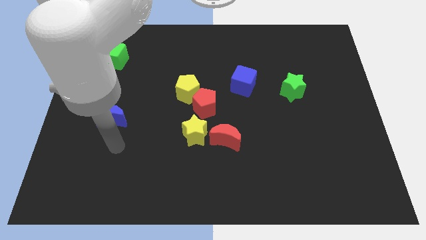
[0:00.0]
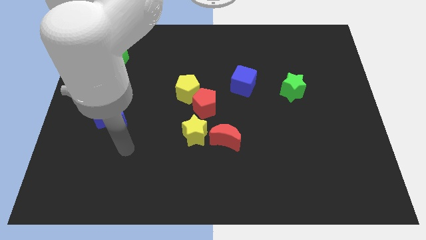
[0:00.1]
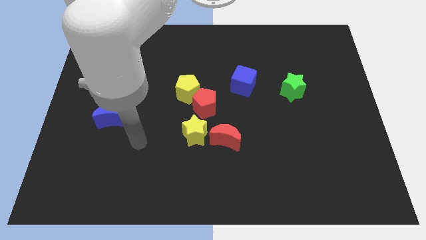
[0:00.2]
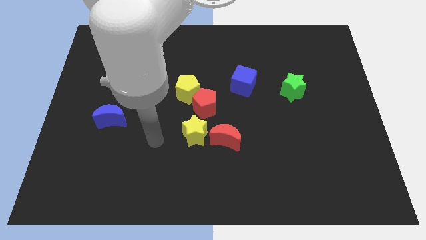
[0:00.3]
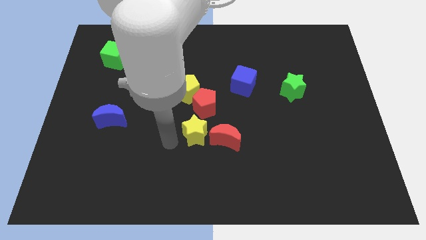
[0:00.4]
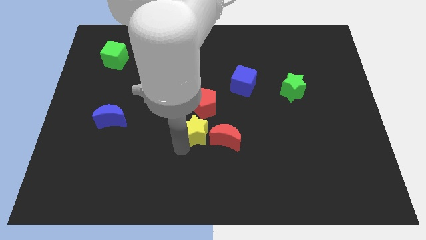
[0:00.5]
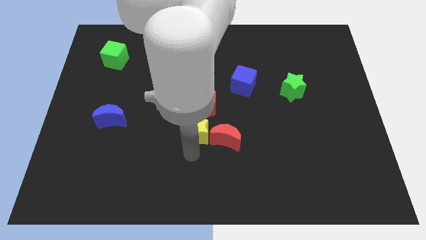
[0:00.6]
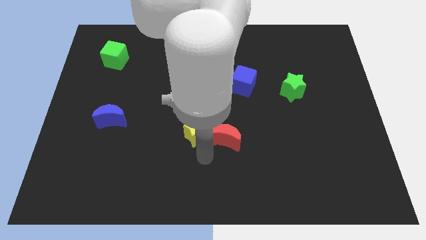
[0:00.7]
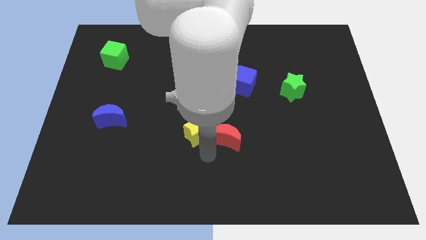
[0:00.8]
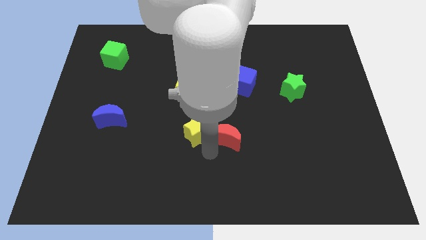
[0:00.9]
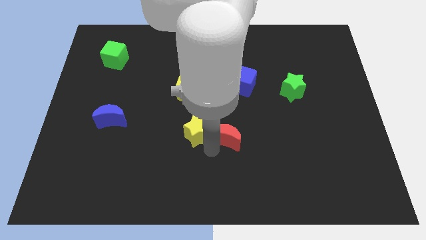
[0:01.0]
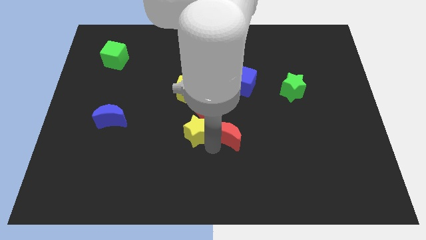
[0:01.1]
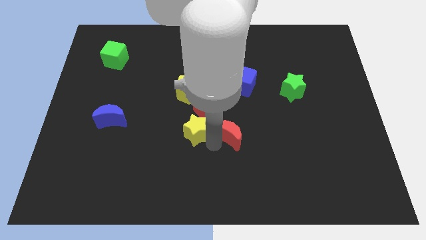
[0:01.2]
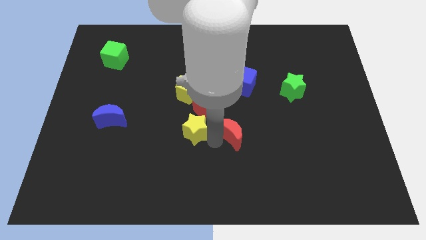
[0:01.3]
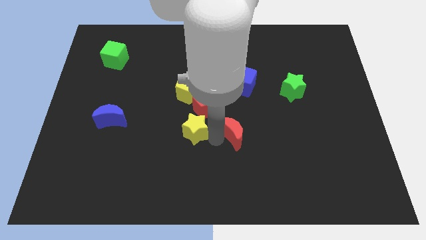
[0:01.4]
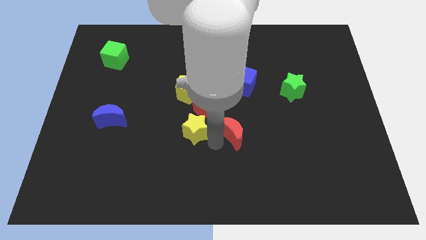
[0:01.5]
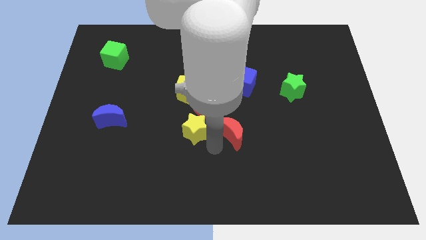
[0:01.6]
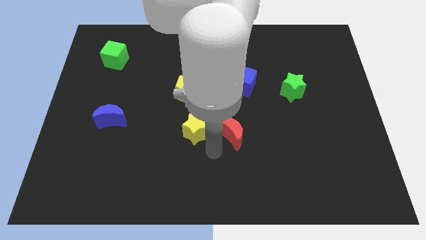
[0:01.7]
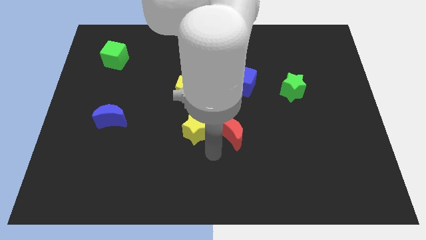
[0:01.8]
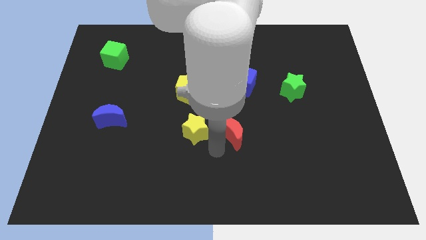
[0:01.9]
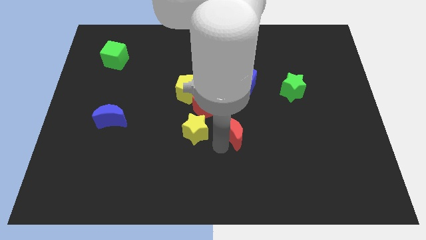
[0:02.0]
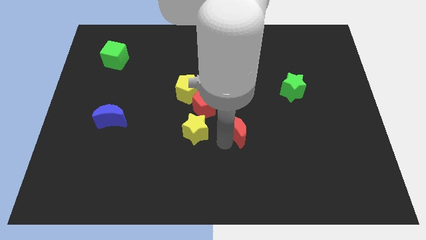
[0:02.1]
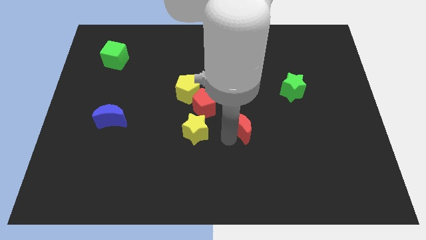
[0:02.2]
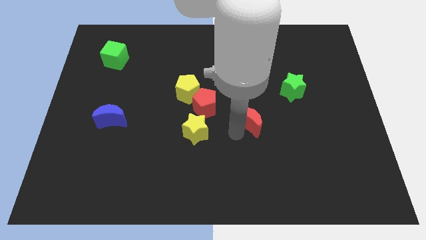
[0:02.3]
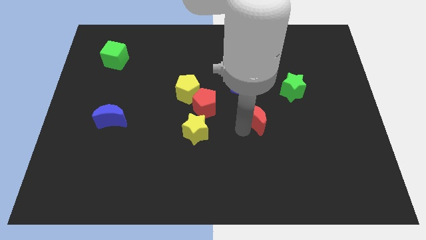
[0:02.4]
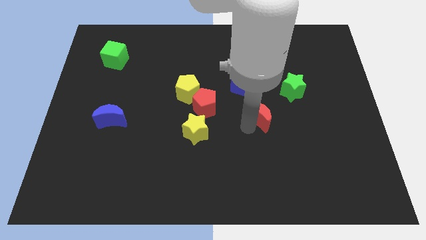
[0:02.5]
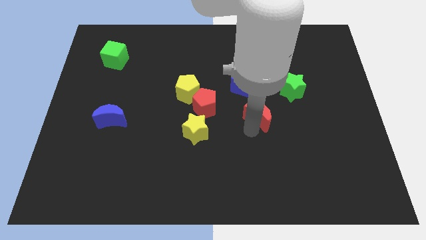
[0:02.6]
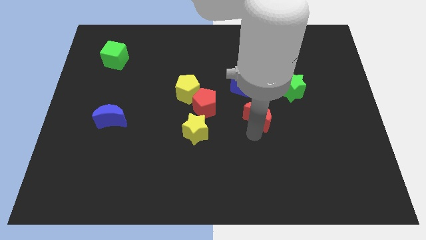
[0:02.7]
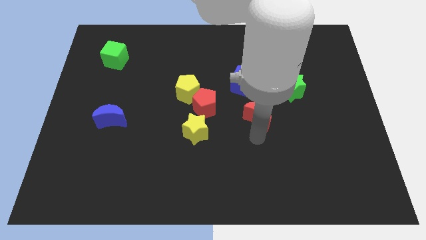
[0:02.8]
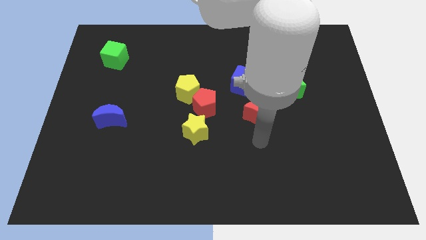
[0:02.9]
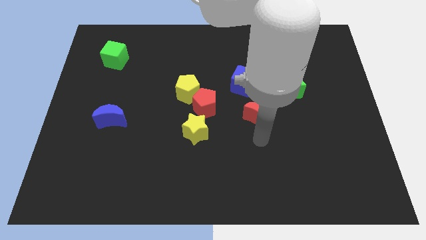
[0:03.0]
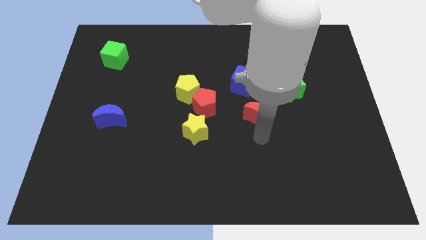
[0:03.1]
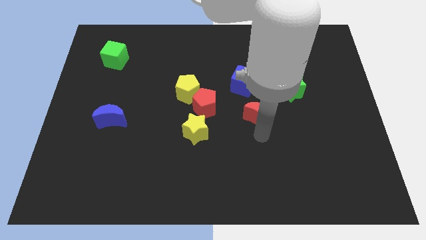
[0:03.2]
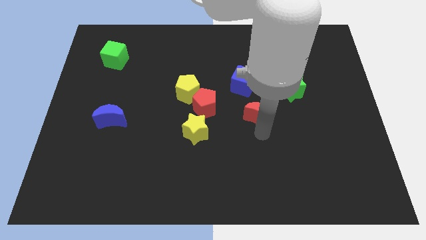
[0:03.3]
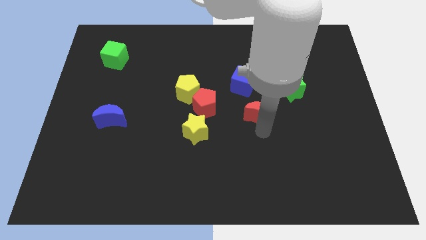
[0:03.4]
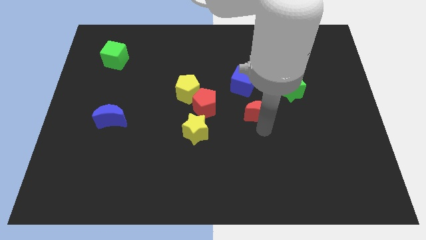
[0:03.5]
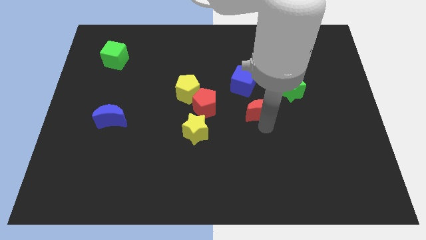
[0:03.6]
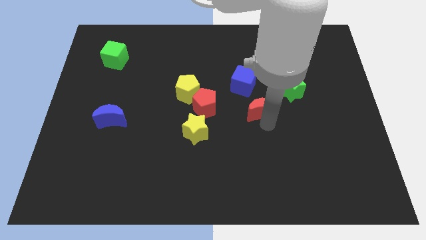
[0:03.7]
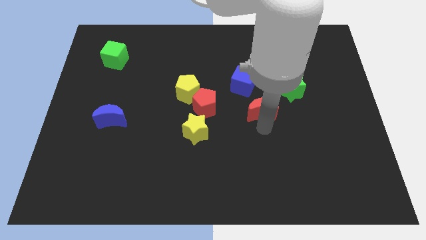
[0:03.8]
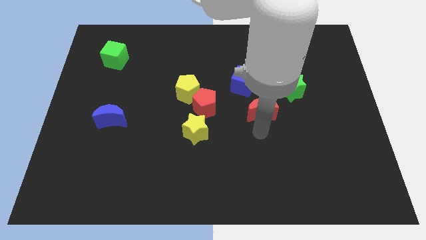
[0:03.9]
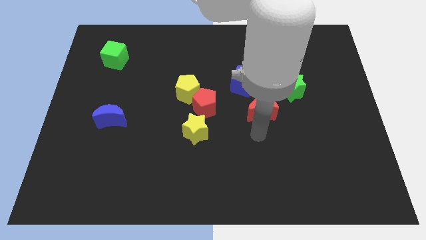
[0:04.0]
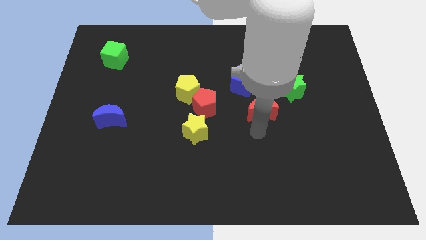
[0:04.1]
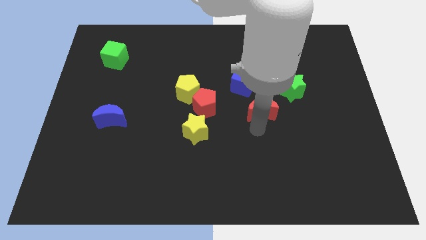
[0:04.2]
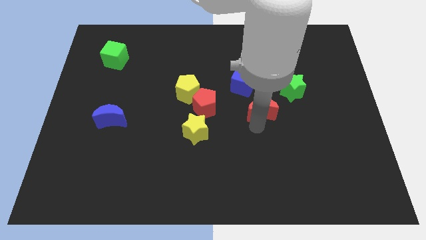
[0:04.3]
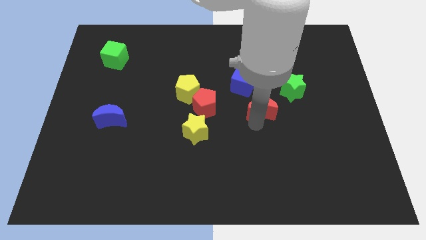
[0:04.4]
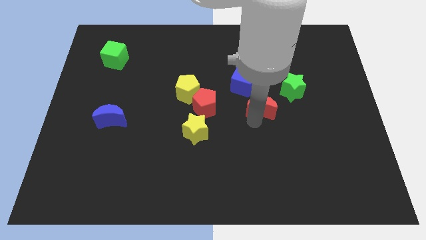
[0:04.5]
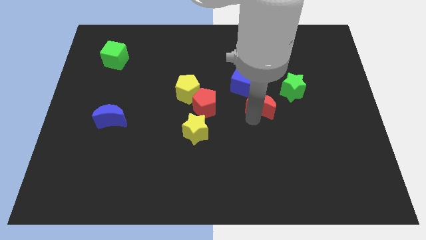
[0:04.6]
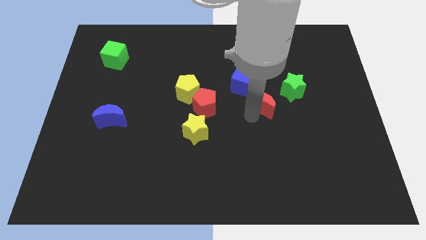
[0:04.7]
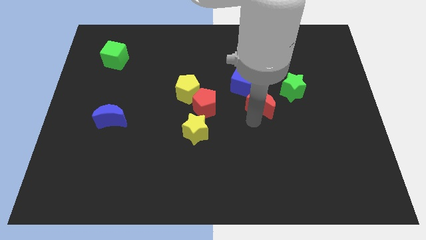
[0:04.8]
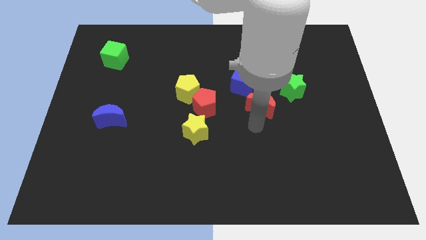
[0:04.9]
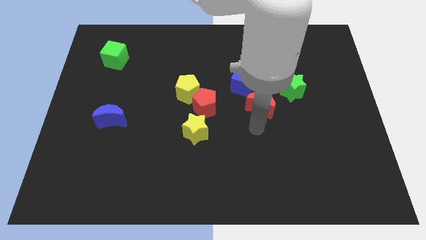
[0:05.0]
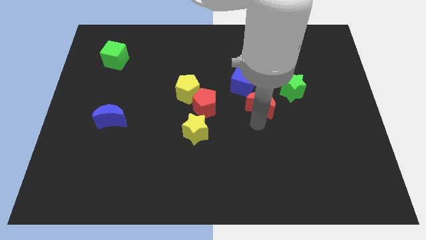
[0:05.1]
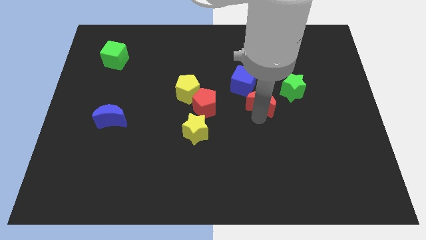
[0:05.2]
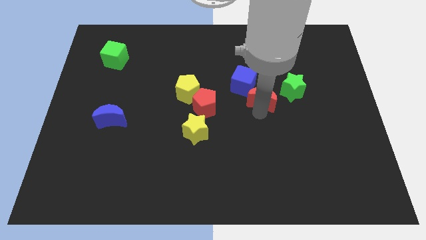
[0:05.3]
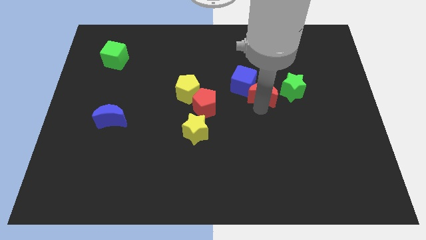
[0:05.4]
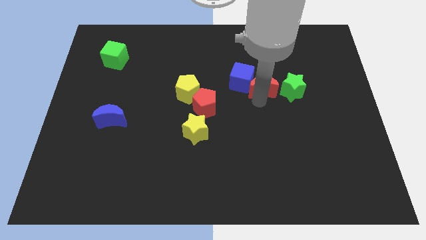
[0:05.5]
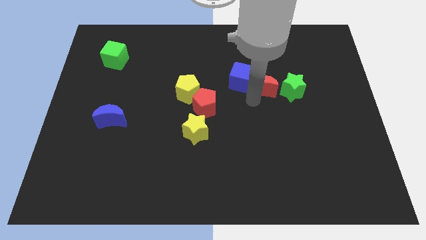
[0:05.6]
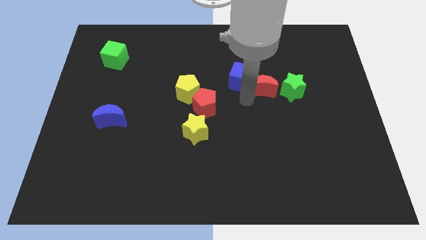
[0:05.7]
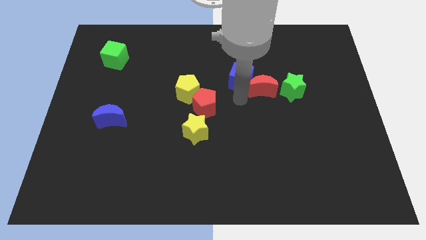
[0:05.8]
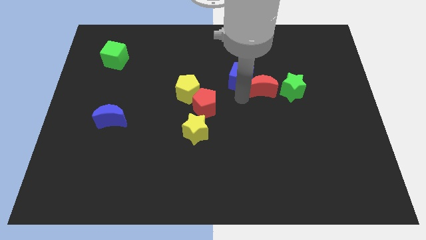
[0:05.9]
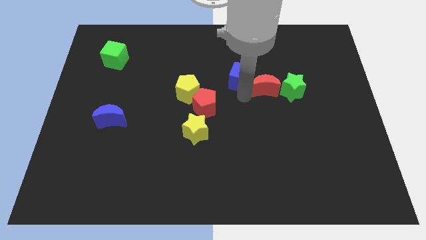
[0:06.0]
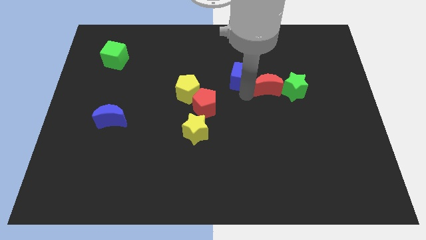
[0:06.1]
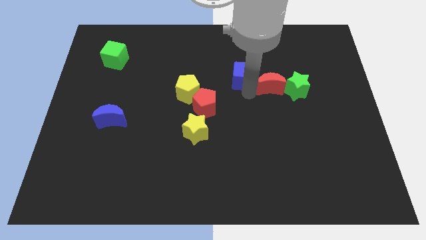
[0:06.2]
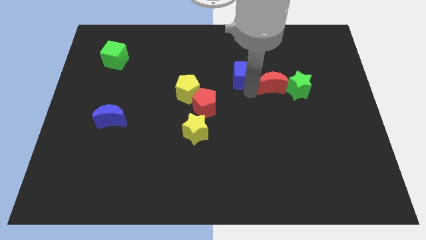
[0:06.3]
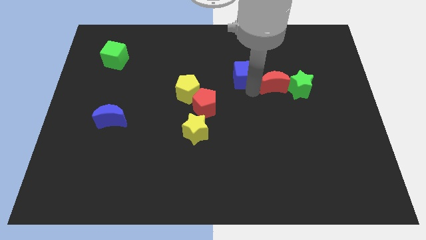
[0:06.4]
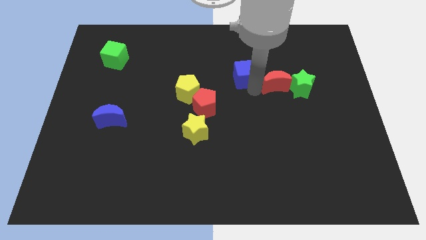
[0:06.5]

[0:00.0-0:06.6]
move the red moon up and right

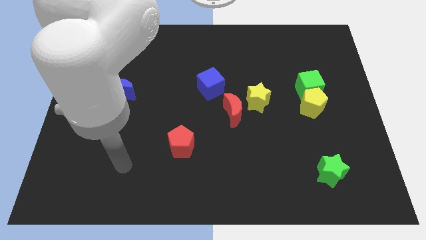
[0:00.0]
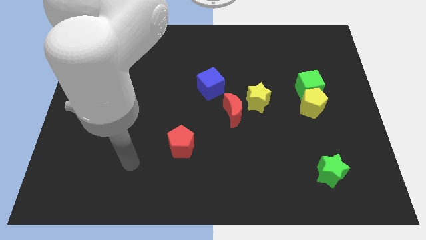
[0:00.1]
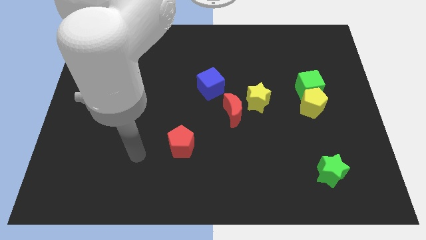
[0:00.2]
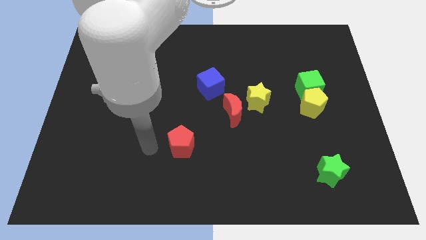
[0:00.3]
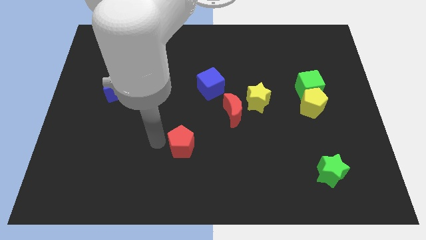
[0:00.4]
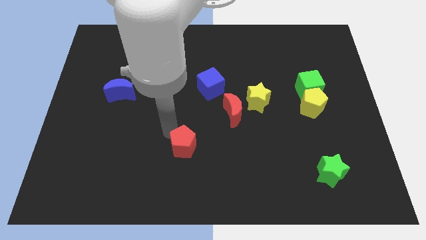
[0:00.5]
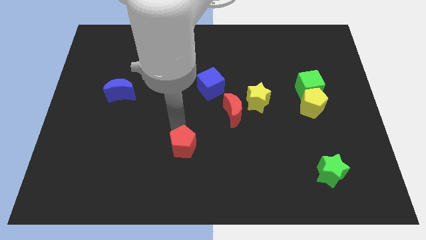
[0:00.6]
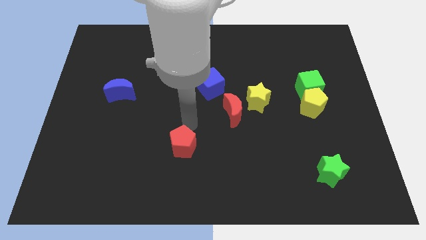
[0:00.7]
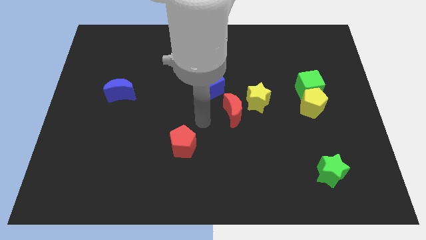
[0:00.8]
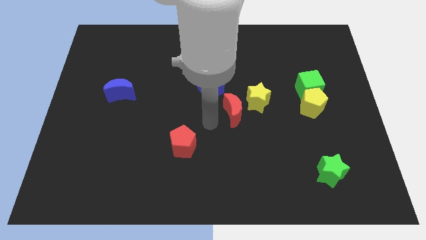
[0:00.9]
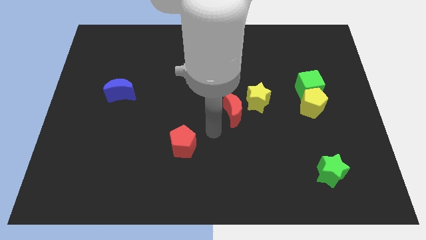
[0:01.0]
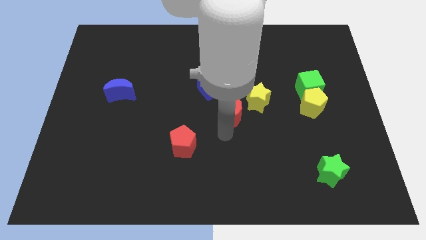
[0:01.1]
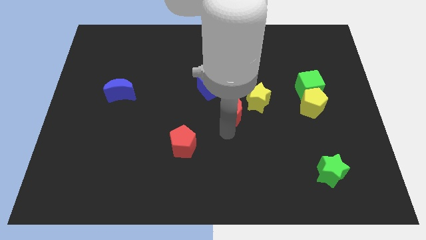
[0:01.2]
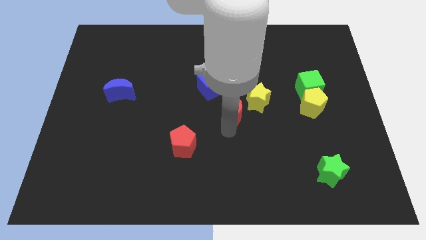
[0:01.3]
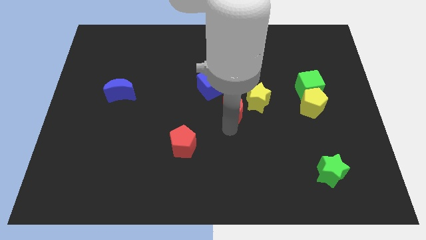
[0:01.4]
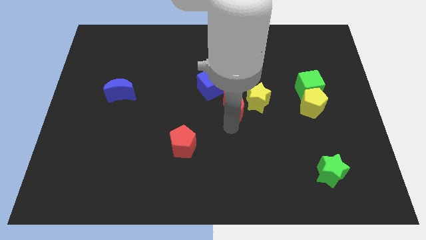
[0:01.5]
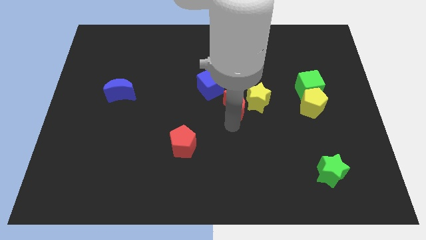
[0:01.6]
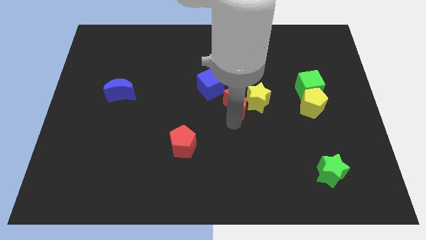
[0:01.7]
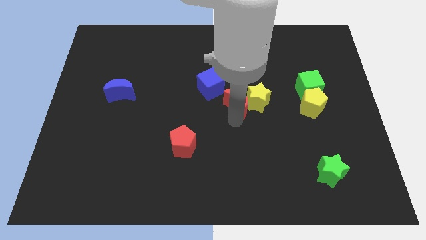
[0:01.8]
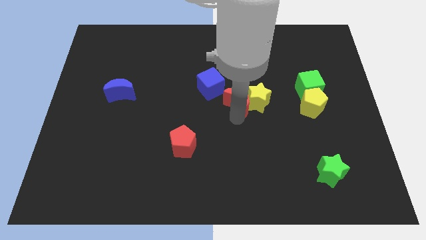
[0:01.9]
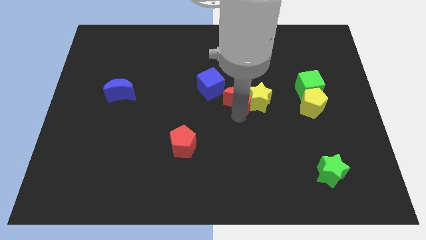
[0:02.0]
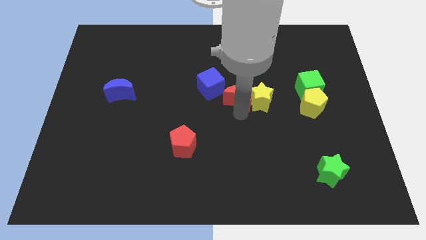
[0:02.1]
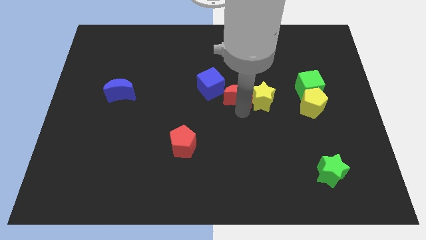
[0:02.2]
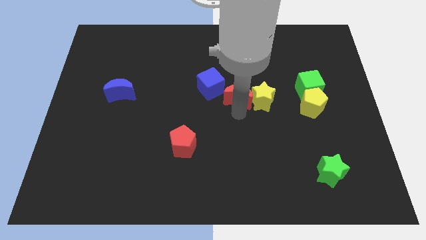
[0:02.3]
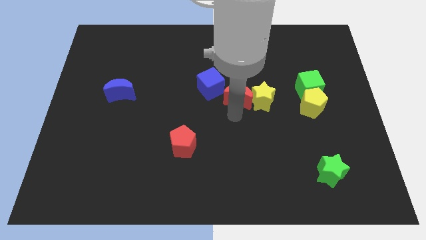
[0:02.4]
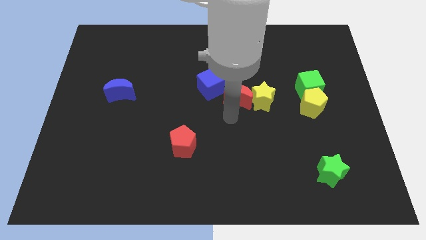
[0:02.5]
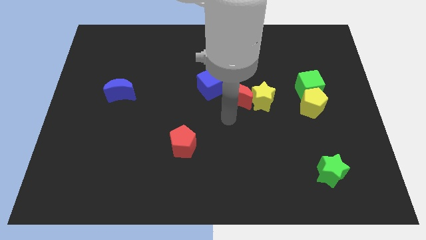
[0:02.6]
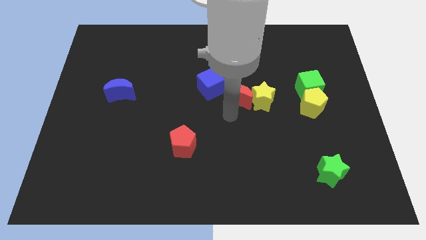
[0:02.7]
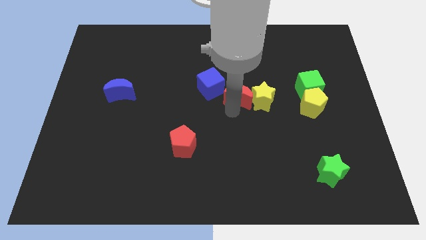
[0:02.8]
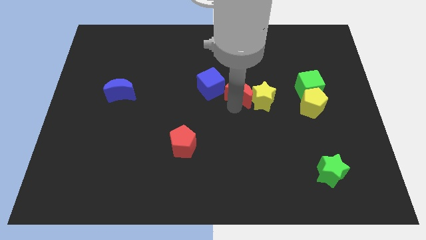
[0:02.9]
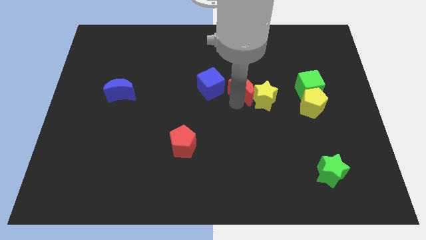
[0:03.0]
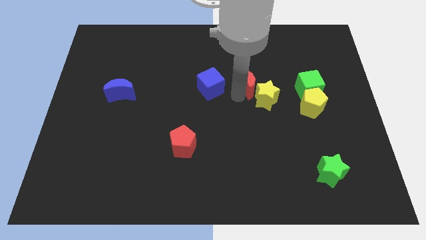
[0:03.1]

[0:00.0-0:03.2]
push the red moon a bit upwards and then to the right
